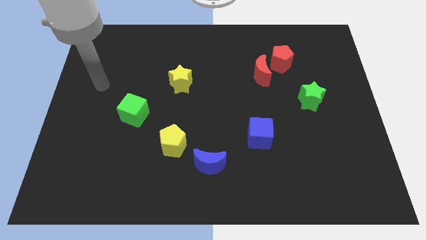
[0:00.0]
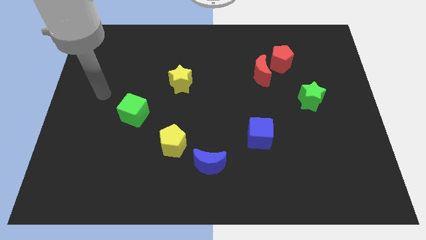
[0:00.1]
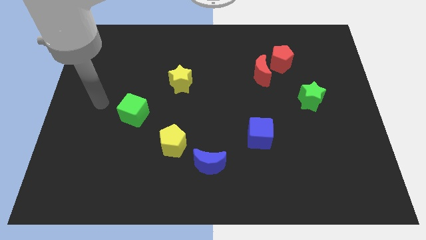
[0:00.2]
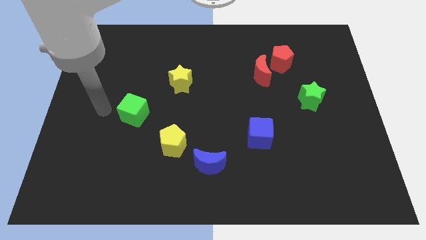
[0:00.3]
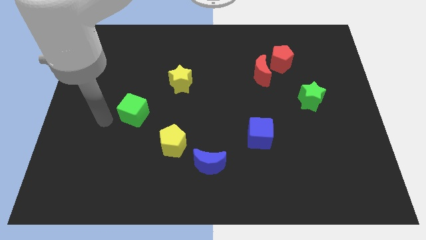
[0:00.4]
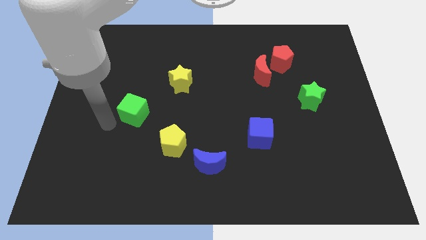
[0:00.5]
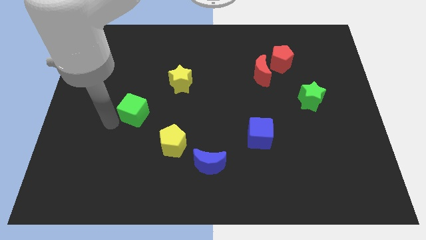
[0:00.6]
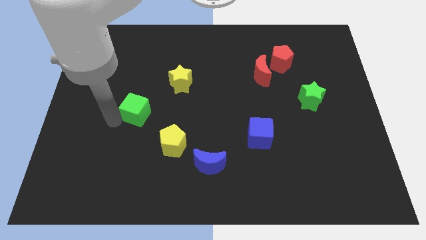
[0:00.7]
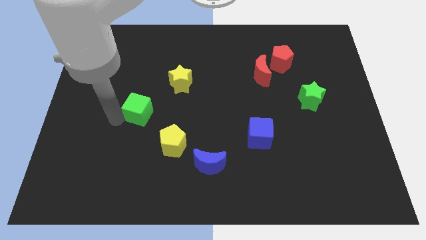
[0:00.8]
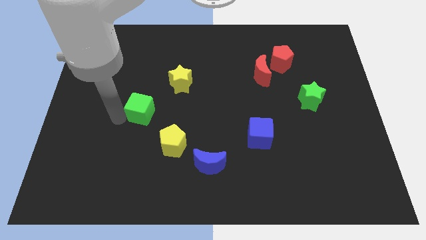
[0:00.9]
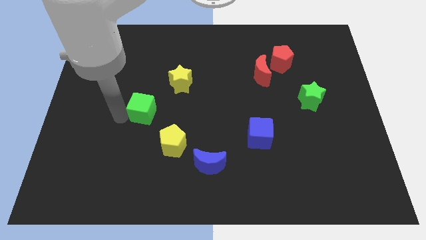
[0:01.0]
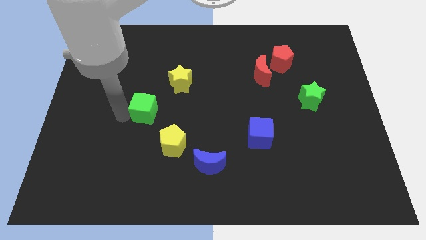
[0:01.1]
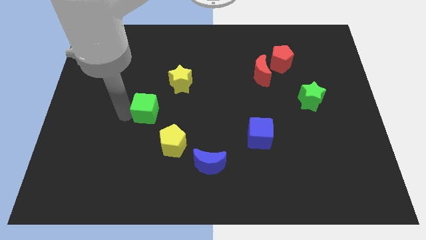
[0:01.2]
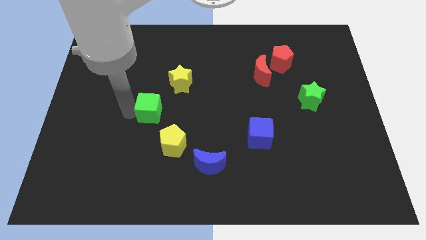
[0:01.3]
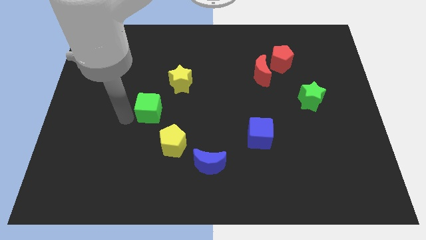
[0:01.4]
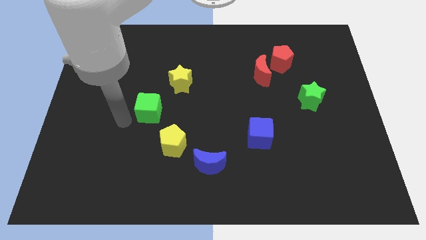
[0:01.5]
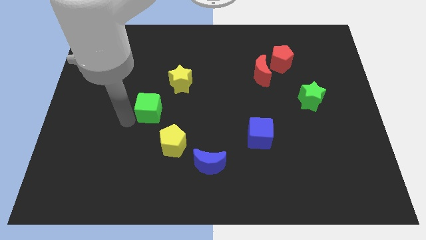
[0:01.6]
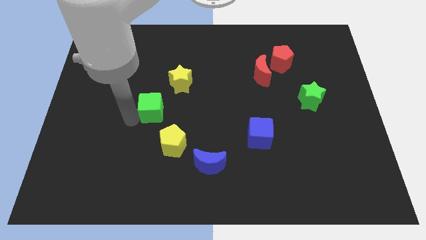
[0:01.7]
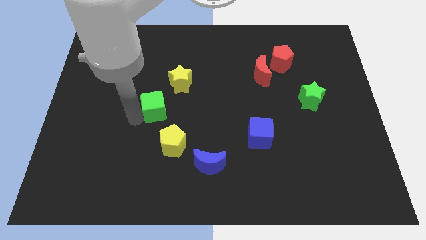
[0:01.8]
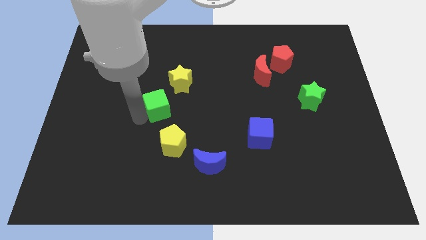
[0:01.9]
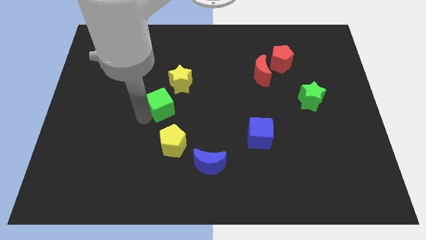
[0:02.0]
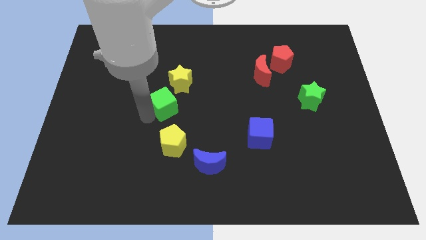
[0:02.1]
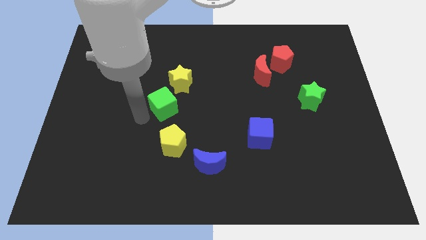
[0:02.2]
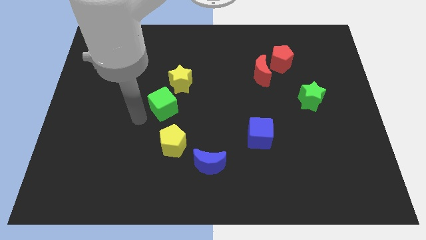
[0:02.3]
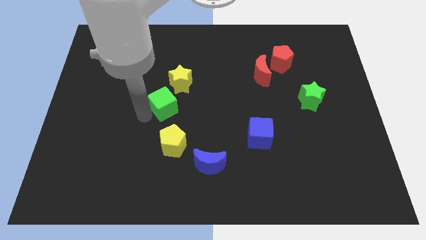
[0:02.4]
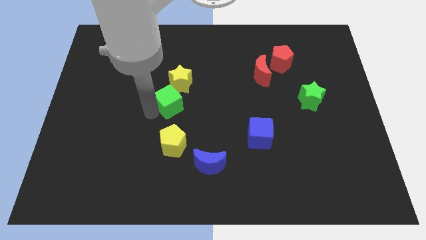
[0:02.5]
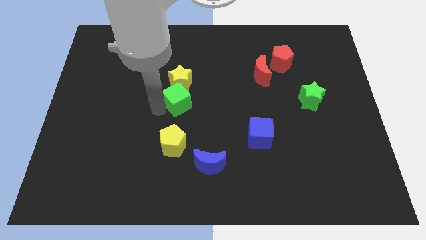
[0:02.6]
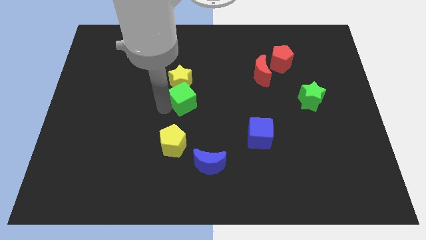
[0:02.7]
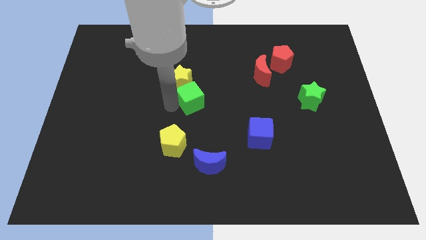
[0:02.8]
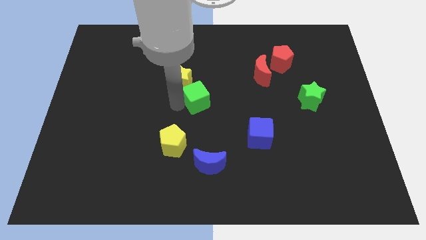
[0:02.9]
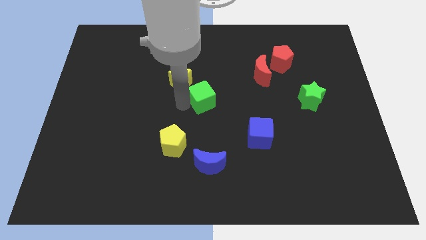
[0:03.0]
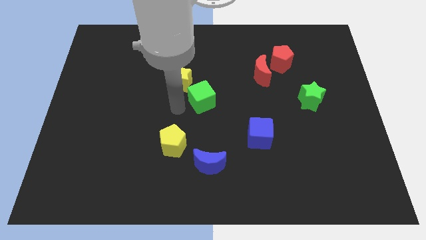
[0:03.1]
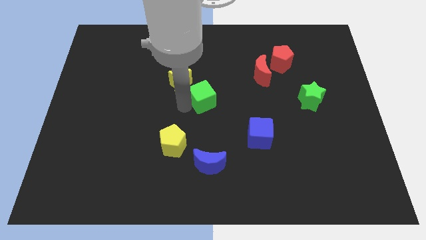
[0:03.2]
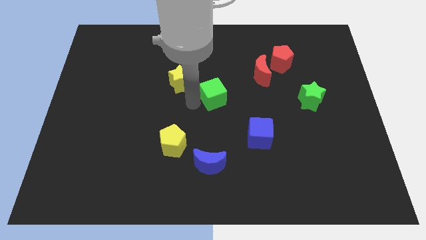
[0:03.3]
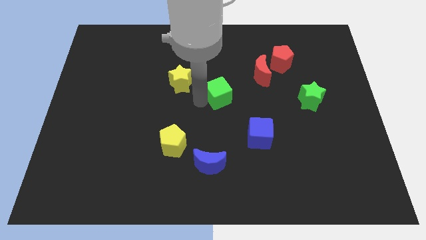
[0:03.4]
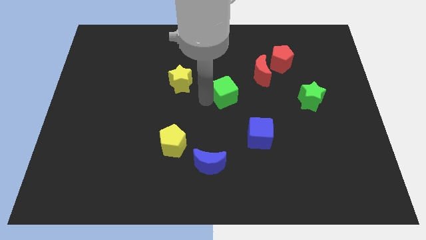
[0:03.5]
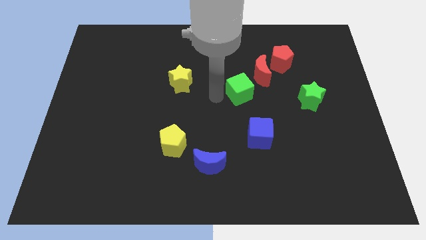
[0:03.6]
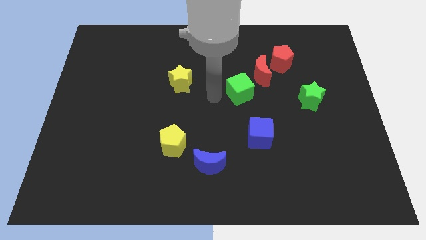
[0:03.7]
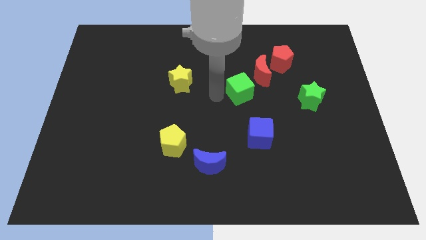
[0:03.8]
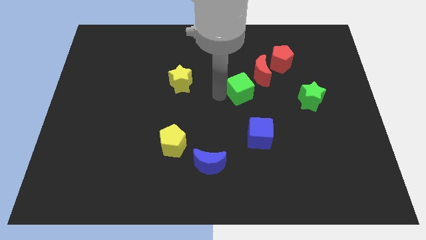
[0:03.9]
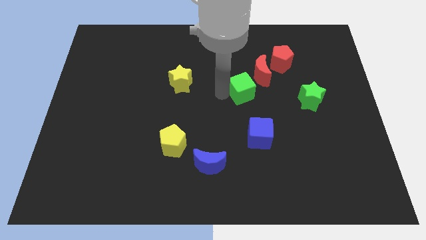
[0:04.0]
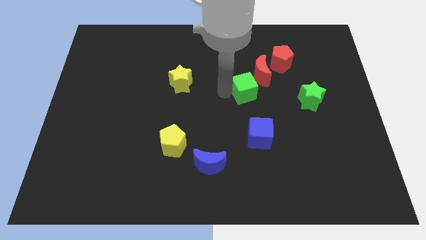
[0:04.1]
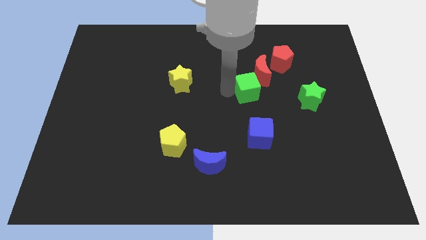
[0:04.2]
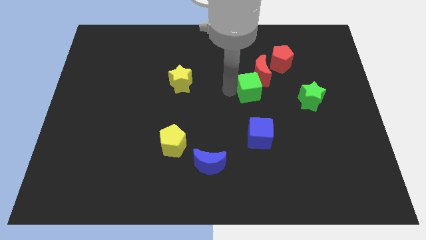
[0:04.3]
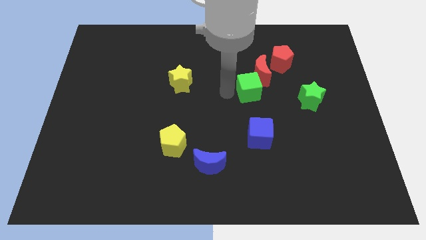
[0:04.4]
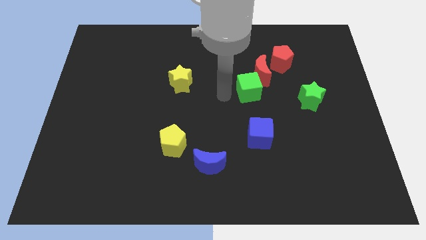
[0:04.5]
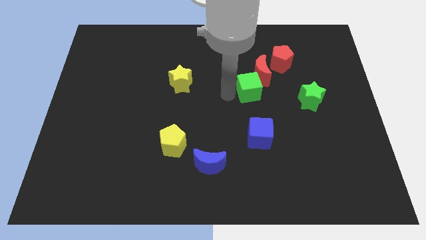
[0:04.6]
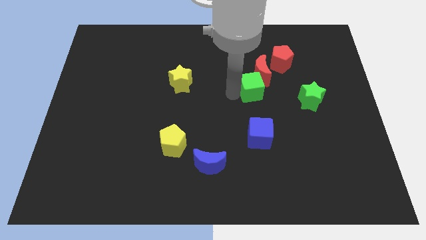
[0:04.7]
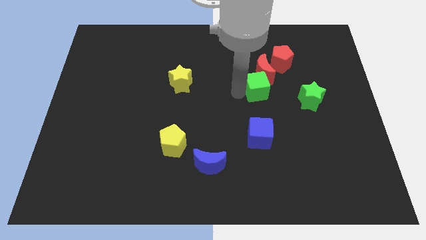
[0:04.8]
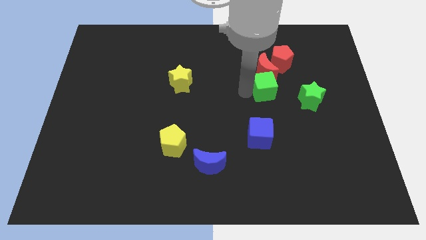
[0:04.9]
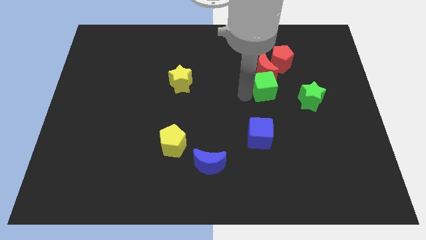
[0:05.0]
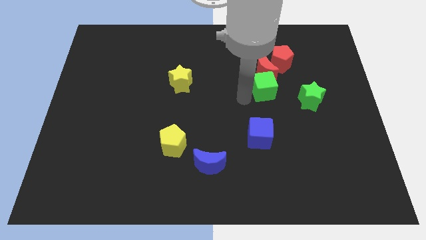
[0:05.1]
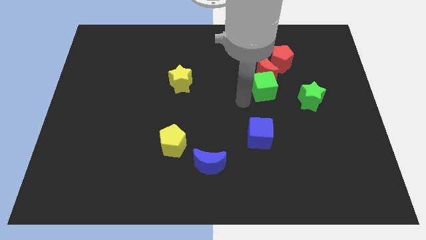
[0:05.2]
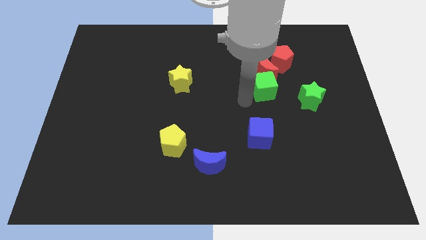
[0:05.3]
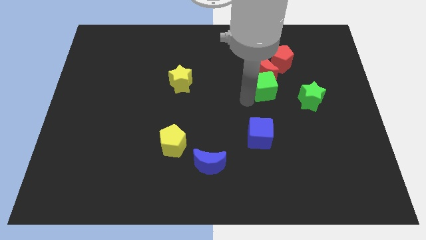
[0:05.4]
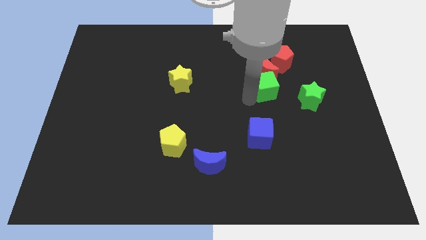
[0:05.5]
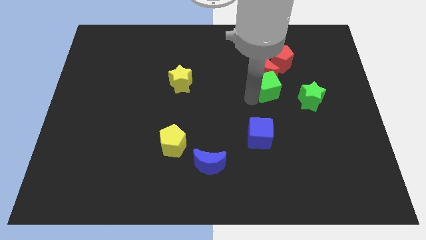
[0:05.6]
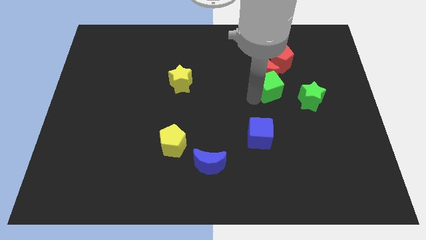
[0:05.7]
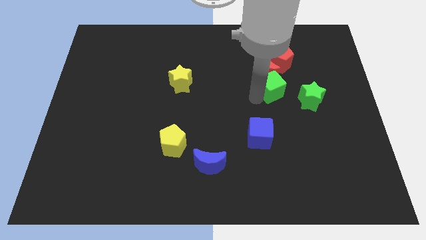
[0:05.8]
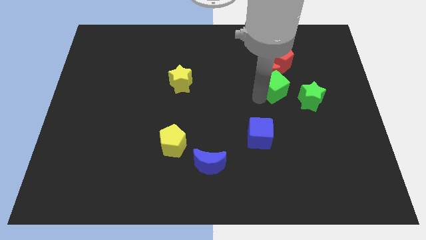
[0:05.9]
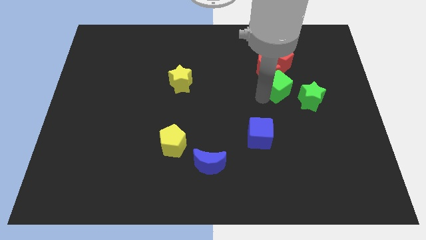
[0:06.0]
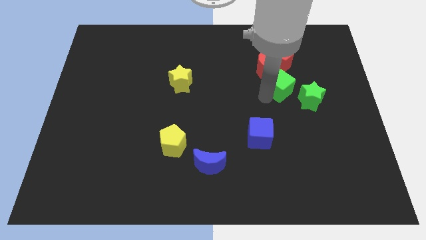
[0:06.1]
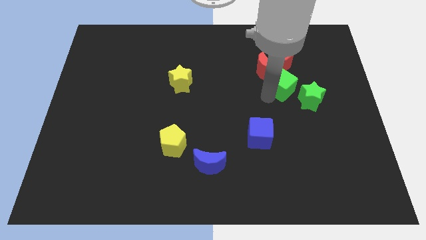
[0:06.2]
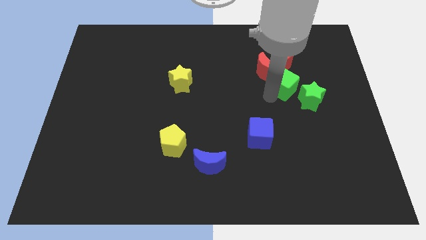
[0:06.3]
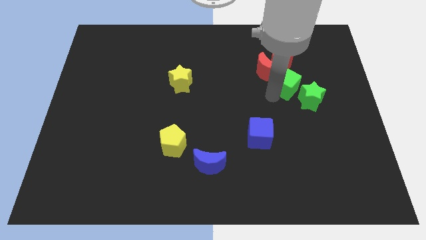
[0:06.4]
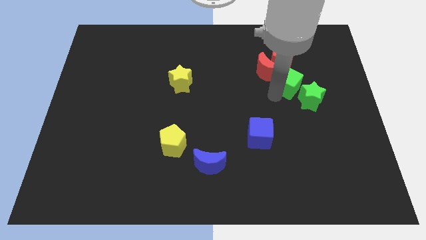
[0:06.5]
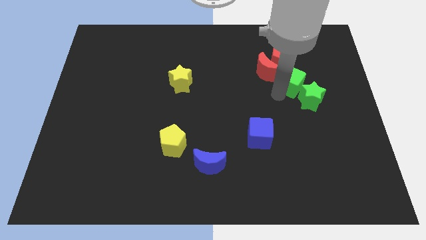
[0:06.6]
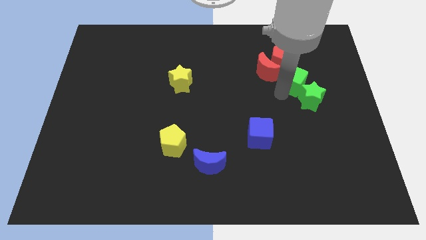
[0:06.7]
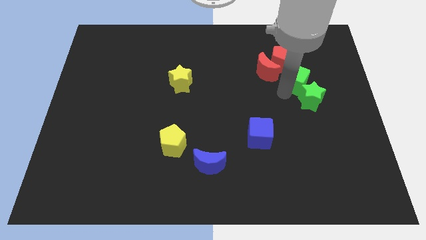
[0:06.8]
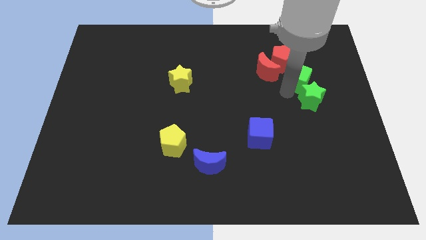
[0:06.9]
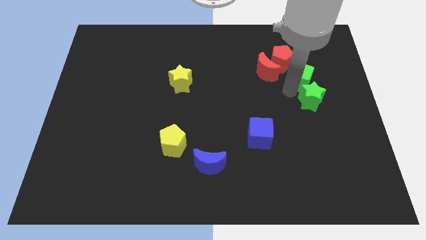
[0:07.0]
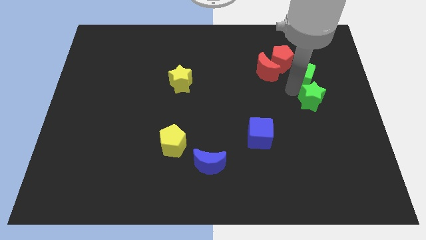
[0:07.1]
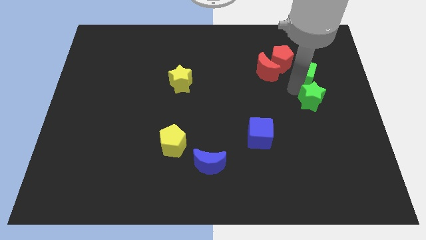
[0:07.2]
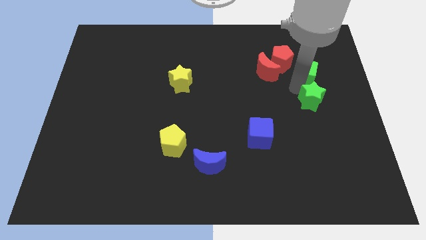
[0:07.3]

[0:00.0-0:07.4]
slide the green cube to the right of the red pentagon
